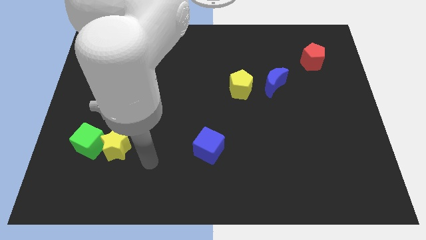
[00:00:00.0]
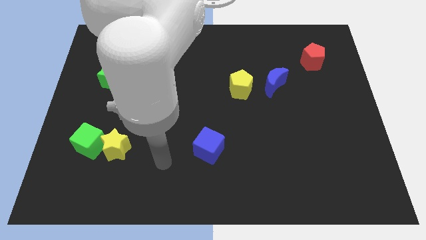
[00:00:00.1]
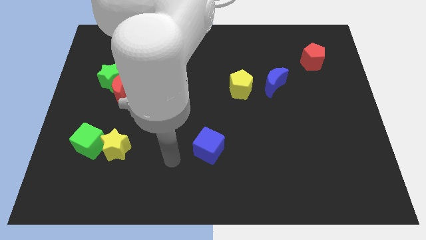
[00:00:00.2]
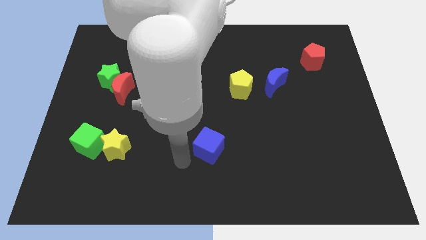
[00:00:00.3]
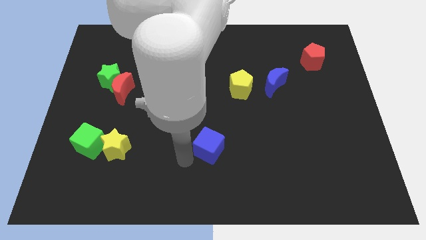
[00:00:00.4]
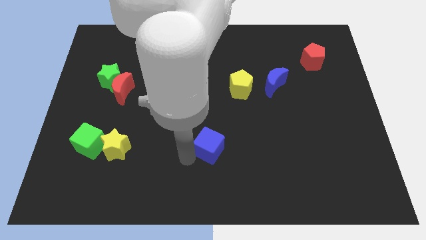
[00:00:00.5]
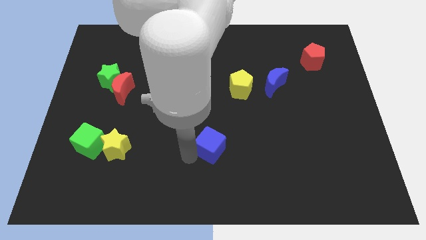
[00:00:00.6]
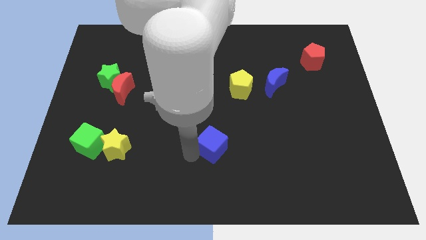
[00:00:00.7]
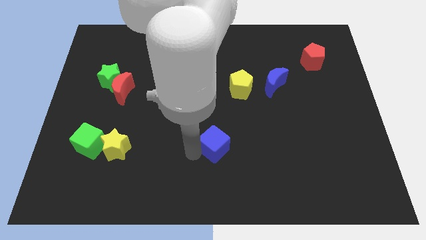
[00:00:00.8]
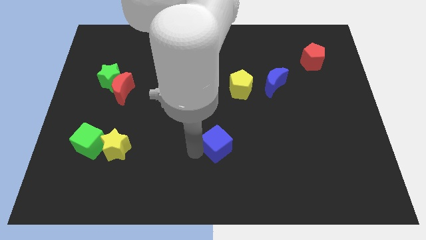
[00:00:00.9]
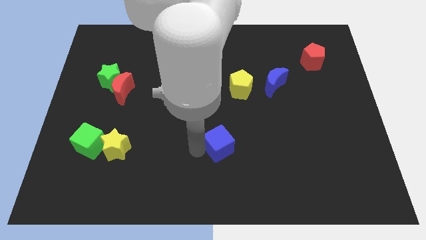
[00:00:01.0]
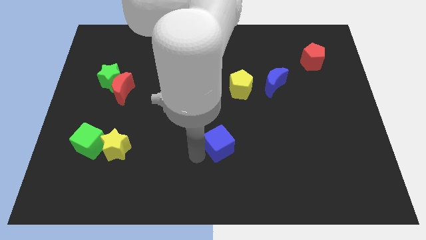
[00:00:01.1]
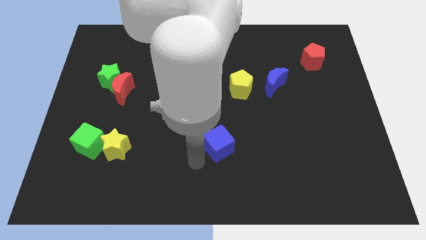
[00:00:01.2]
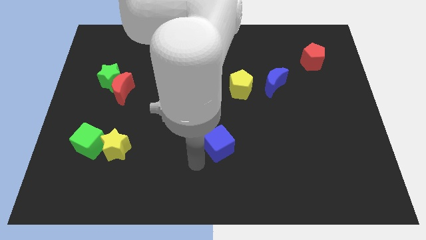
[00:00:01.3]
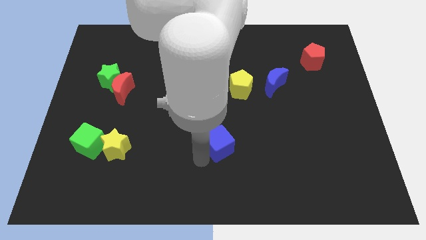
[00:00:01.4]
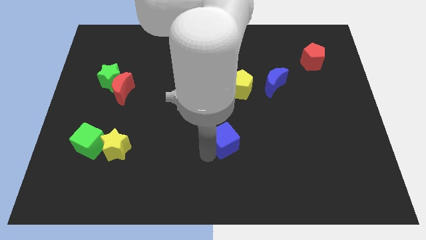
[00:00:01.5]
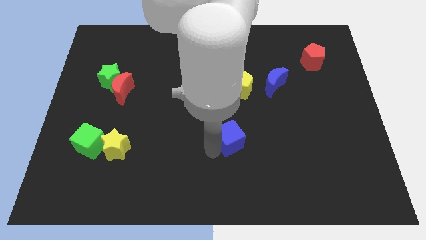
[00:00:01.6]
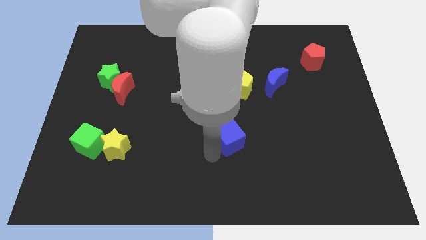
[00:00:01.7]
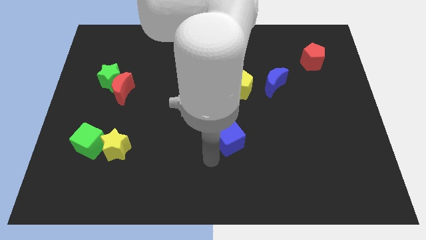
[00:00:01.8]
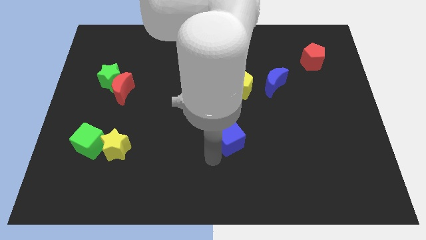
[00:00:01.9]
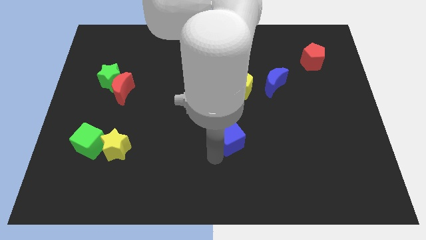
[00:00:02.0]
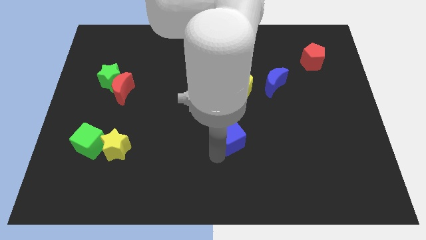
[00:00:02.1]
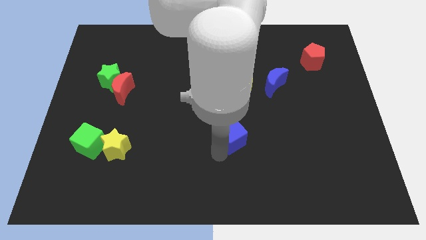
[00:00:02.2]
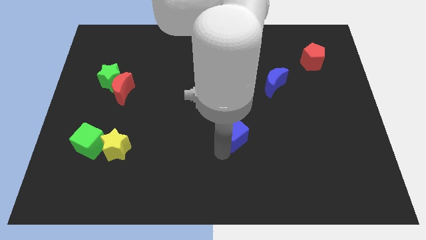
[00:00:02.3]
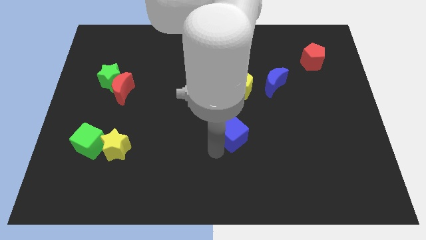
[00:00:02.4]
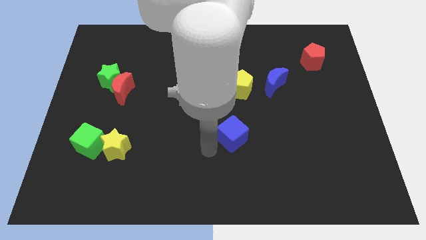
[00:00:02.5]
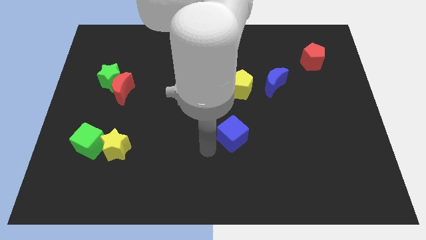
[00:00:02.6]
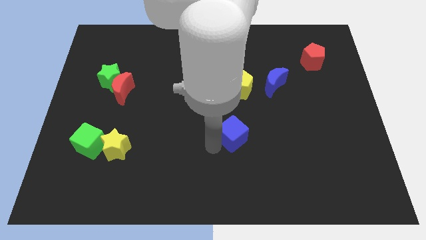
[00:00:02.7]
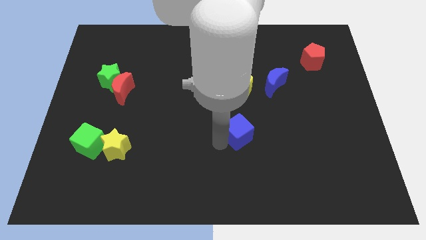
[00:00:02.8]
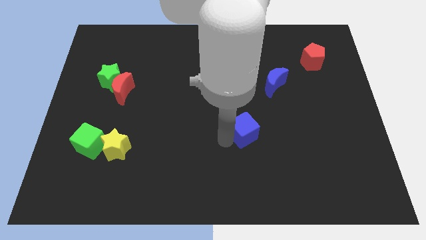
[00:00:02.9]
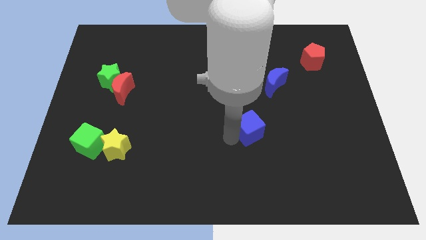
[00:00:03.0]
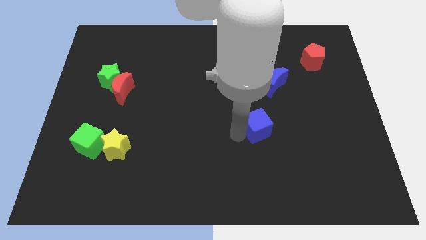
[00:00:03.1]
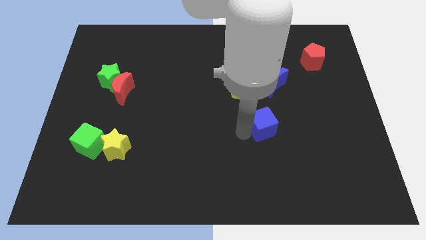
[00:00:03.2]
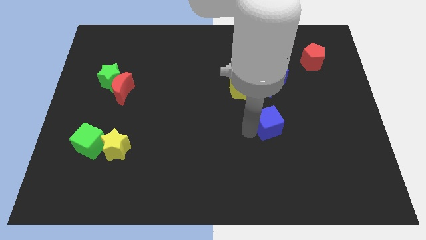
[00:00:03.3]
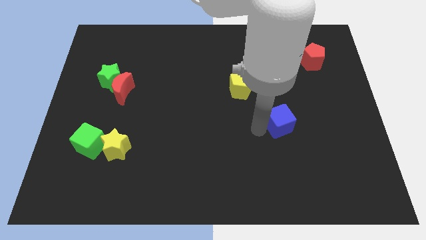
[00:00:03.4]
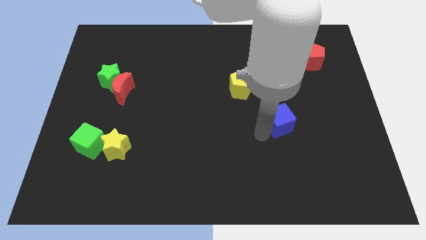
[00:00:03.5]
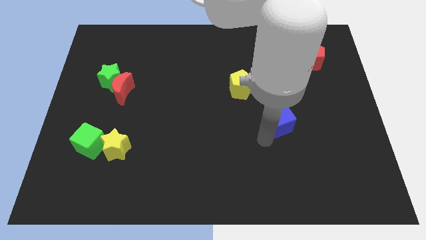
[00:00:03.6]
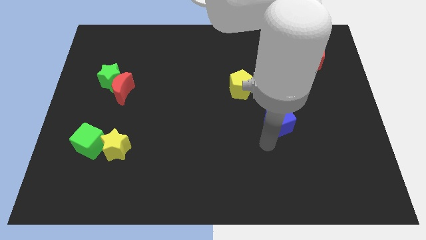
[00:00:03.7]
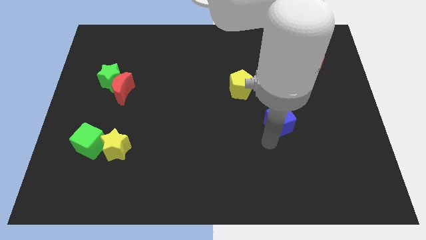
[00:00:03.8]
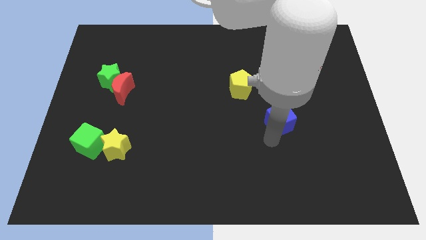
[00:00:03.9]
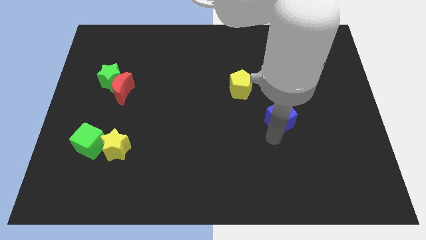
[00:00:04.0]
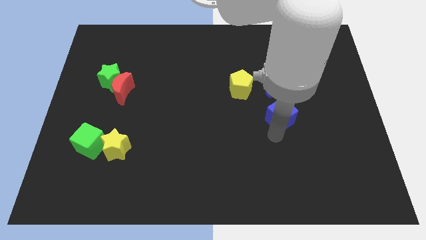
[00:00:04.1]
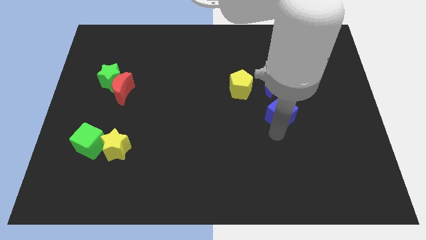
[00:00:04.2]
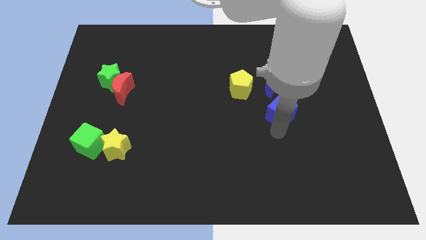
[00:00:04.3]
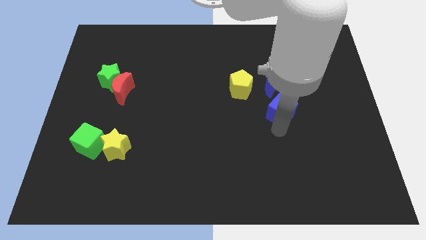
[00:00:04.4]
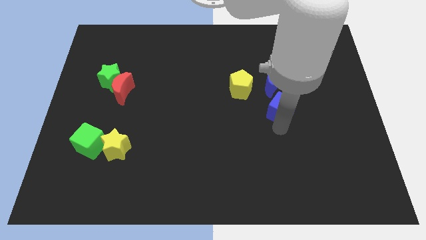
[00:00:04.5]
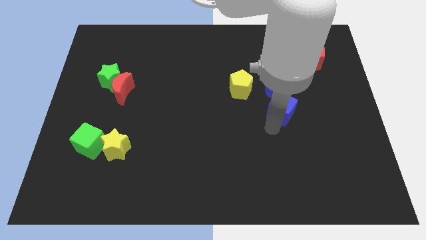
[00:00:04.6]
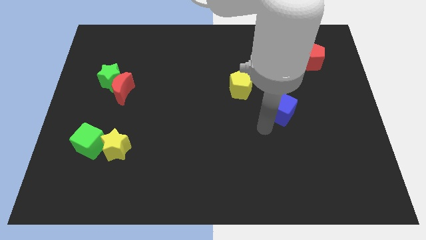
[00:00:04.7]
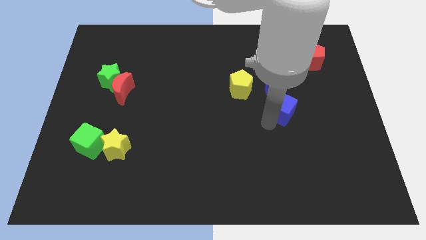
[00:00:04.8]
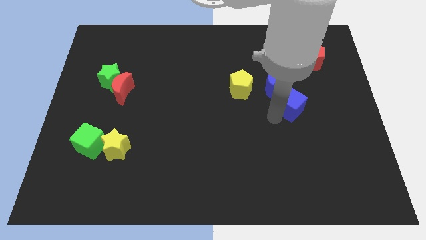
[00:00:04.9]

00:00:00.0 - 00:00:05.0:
push the blue cube upwards and then to the right

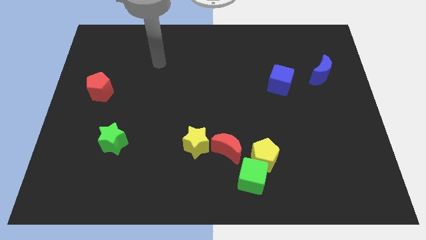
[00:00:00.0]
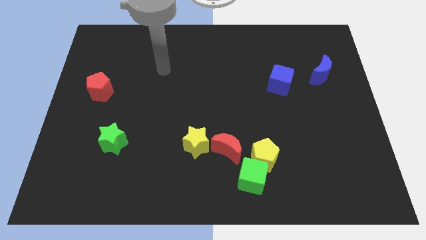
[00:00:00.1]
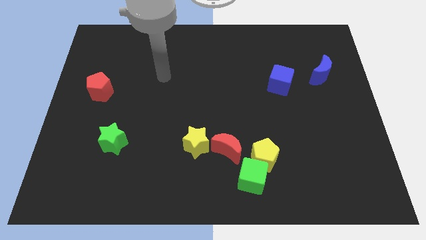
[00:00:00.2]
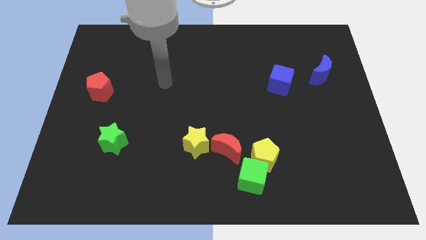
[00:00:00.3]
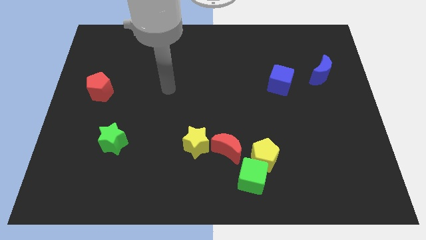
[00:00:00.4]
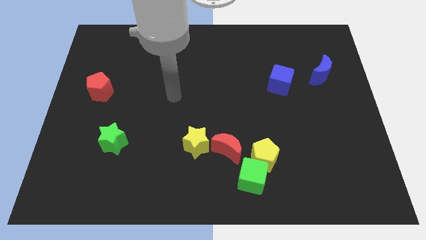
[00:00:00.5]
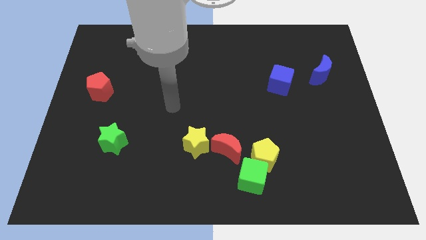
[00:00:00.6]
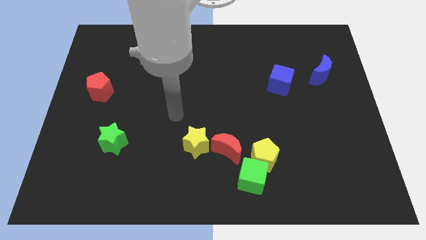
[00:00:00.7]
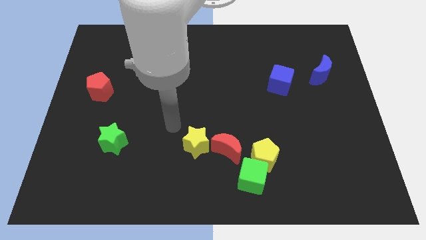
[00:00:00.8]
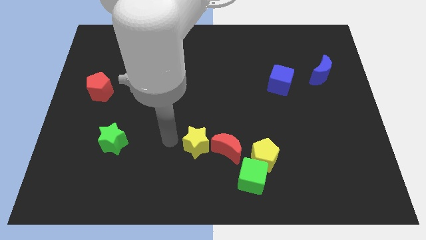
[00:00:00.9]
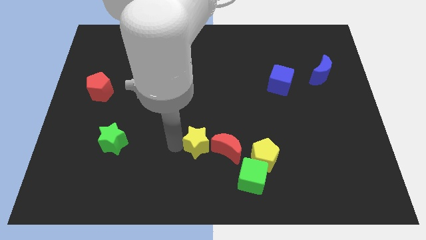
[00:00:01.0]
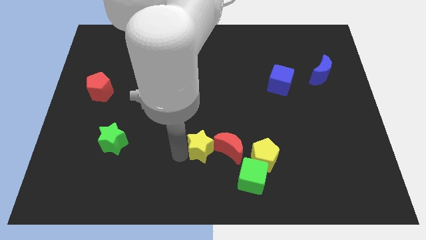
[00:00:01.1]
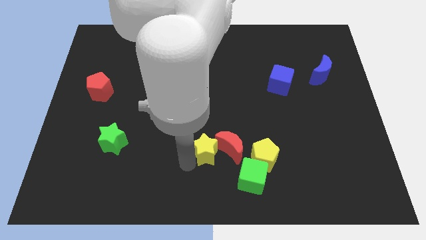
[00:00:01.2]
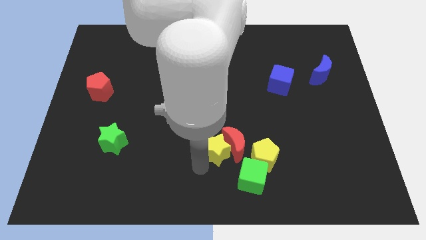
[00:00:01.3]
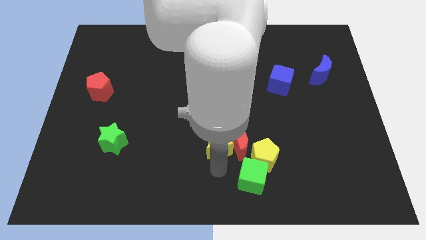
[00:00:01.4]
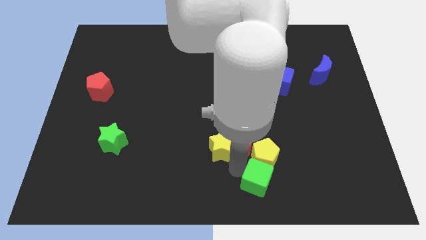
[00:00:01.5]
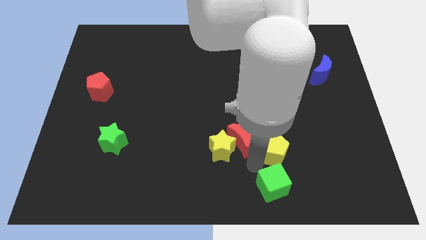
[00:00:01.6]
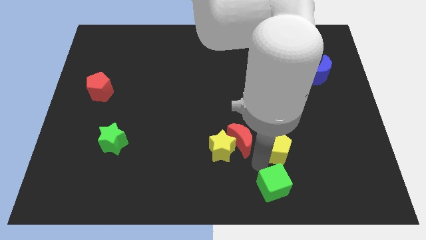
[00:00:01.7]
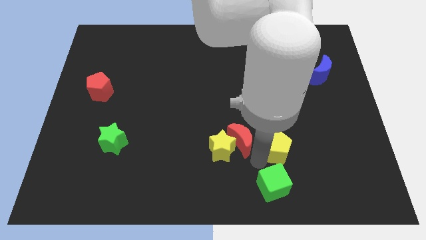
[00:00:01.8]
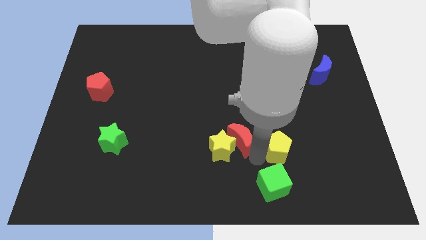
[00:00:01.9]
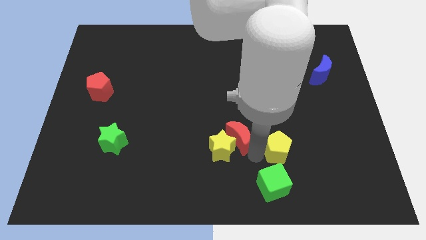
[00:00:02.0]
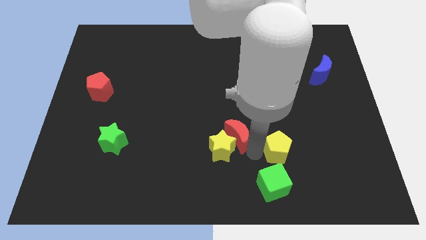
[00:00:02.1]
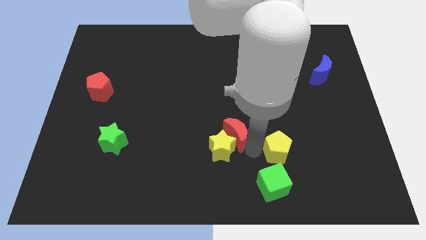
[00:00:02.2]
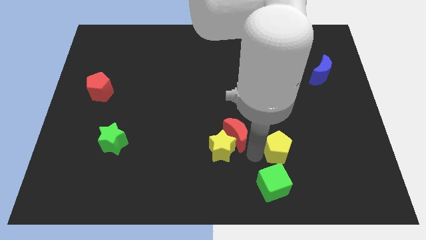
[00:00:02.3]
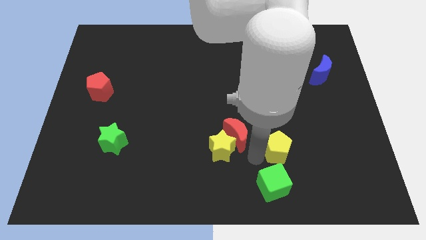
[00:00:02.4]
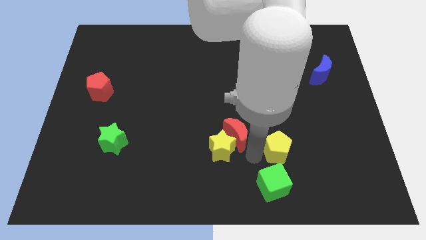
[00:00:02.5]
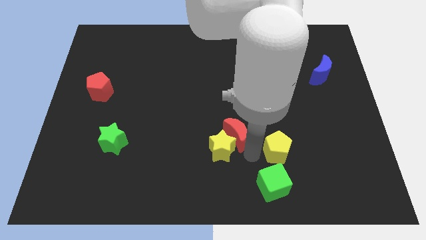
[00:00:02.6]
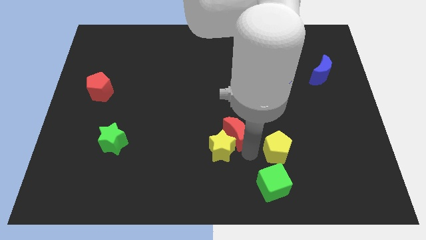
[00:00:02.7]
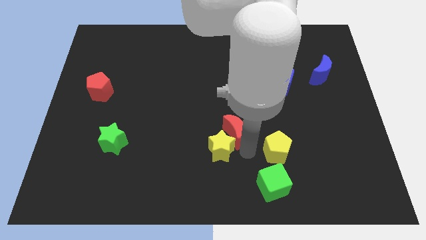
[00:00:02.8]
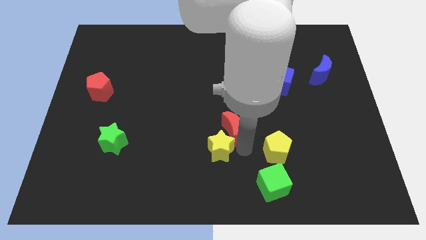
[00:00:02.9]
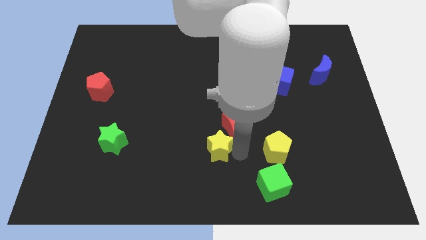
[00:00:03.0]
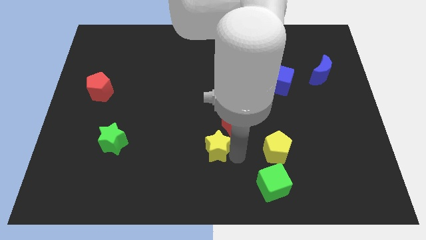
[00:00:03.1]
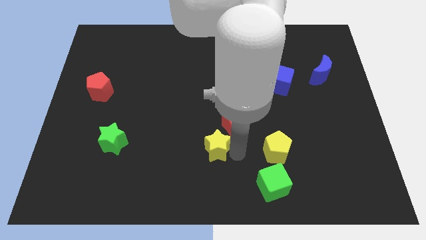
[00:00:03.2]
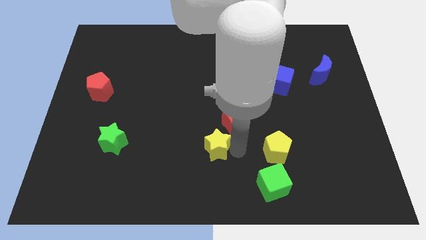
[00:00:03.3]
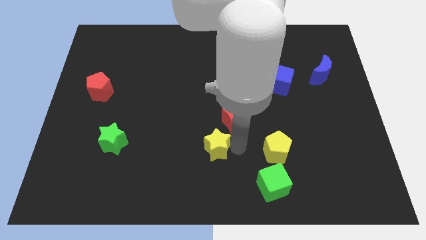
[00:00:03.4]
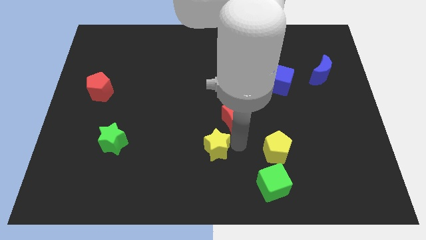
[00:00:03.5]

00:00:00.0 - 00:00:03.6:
slightly move the red moon upwards
